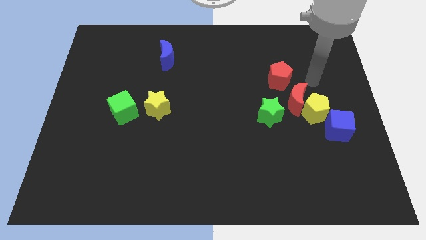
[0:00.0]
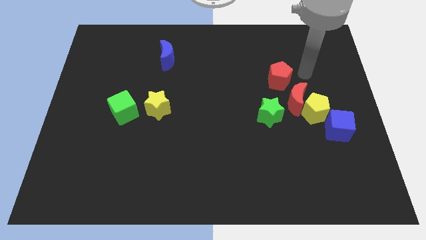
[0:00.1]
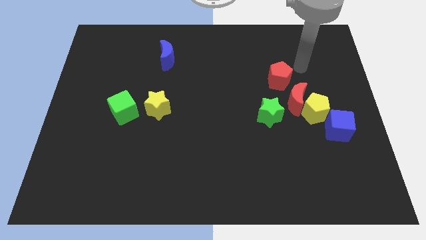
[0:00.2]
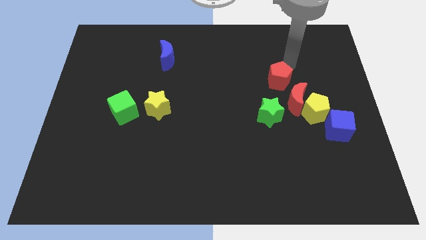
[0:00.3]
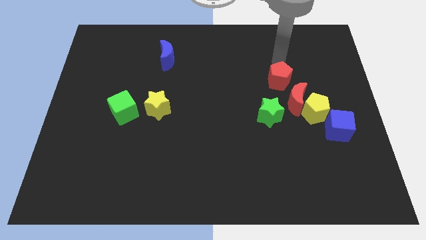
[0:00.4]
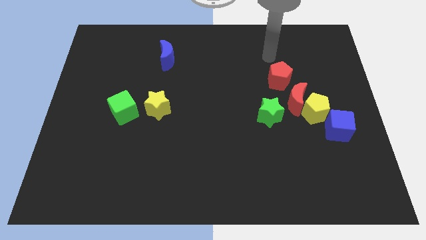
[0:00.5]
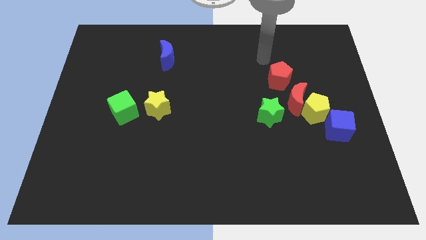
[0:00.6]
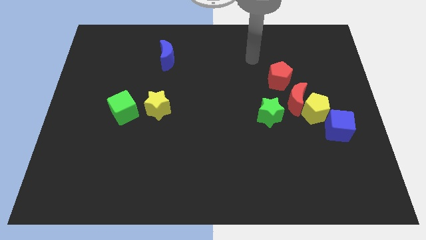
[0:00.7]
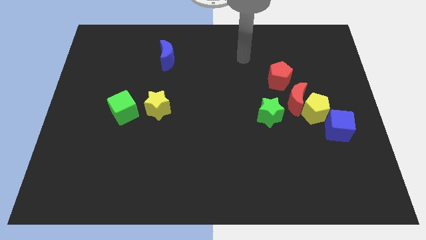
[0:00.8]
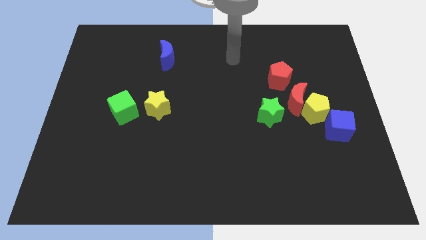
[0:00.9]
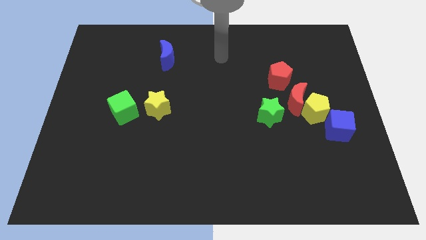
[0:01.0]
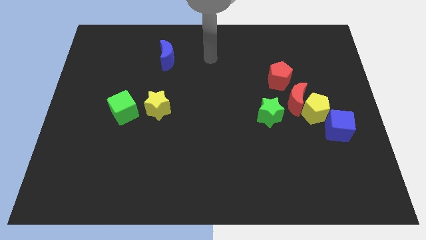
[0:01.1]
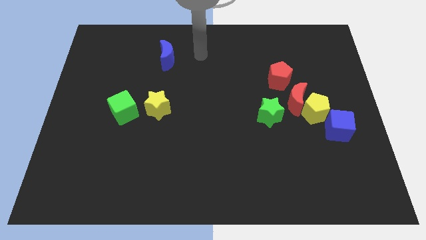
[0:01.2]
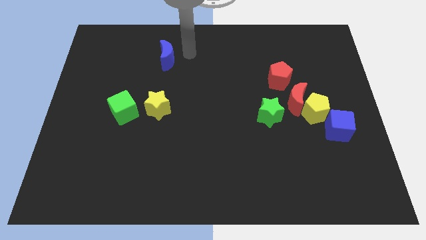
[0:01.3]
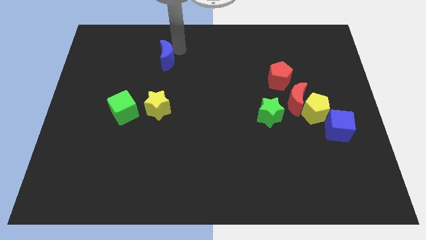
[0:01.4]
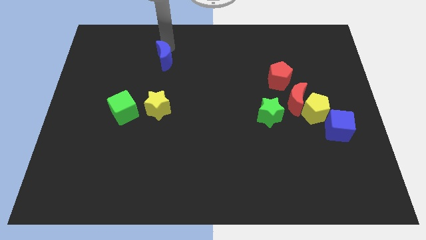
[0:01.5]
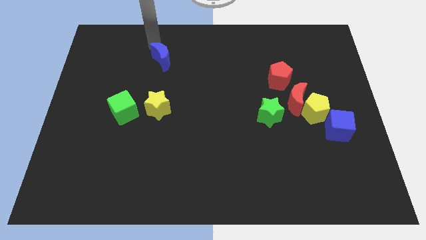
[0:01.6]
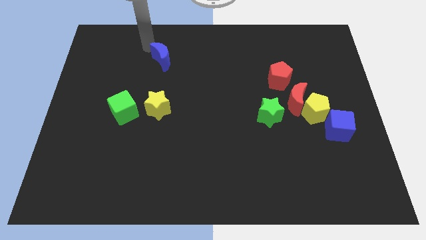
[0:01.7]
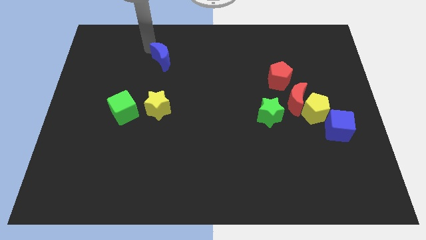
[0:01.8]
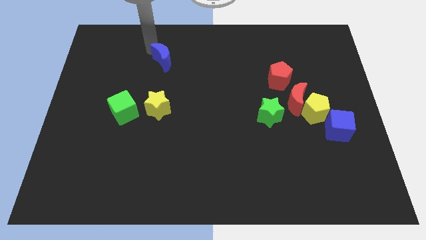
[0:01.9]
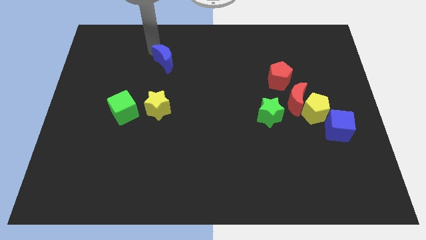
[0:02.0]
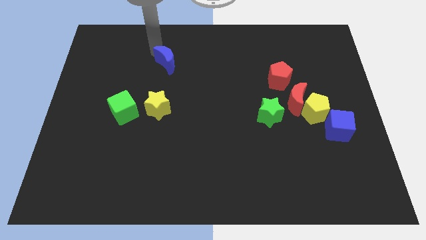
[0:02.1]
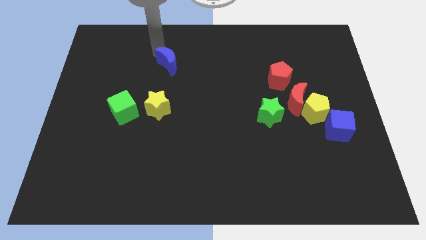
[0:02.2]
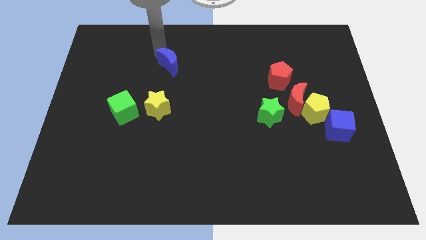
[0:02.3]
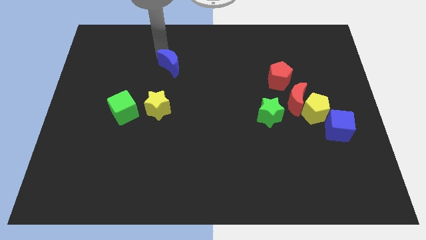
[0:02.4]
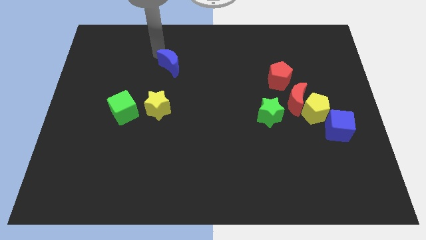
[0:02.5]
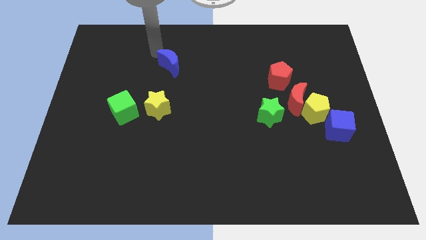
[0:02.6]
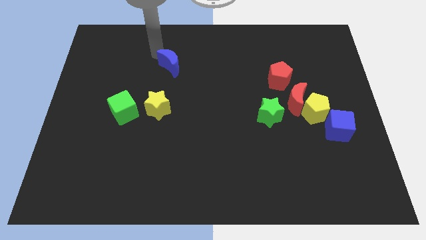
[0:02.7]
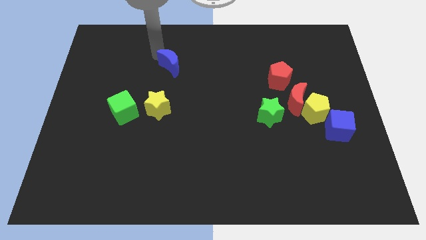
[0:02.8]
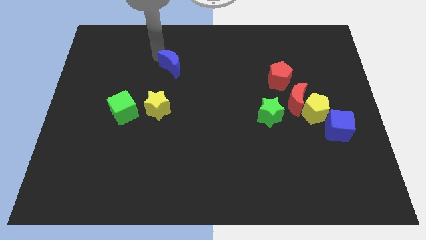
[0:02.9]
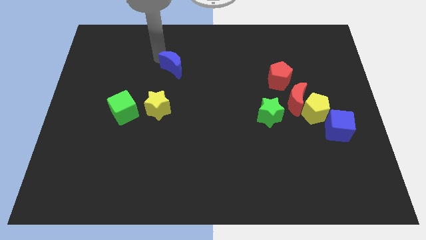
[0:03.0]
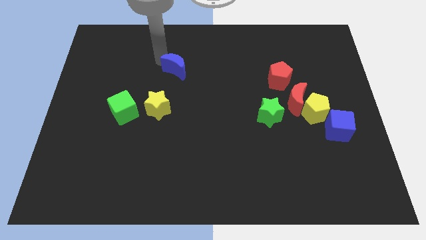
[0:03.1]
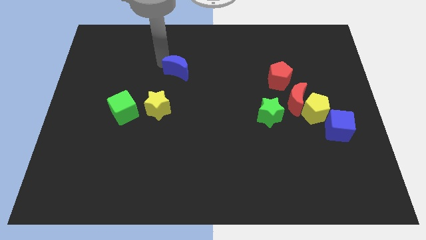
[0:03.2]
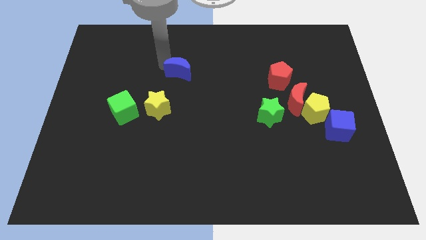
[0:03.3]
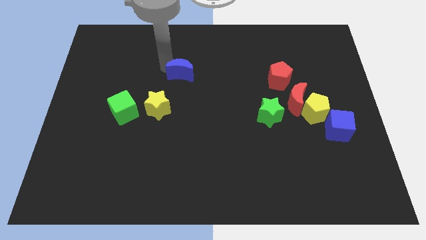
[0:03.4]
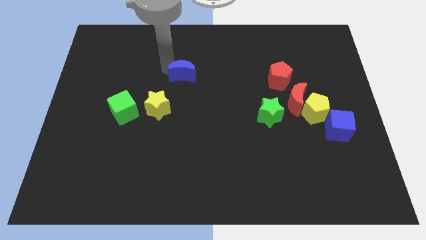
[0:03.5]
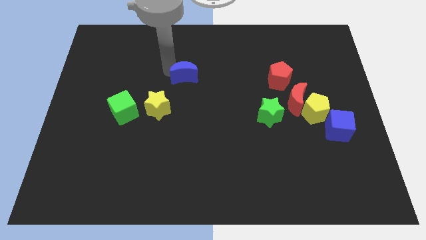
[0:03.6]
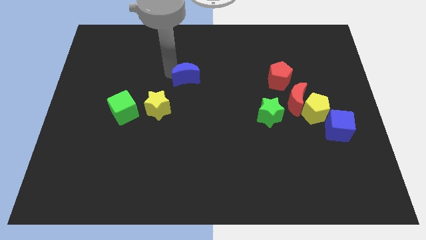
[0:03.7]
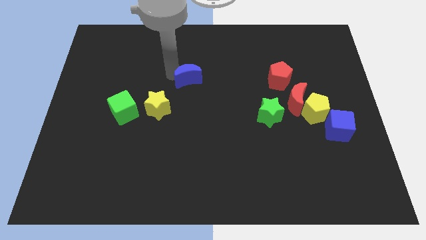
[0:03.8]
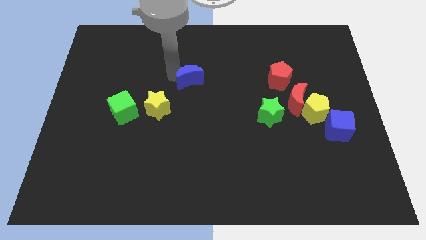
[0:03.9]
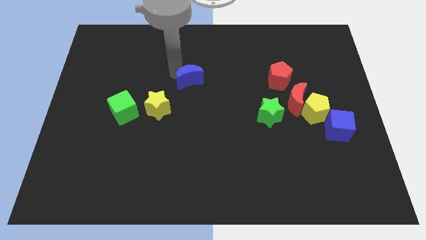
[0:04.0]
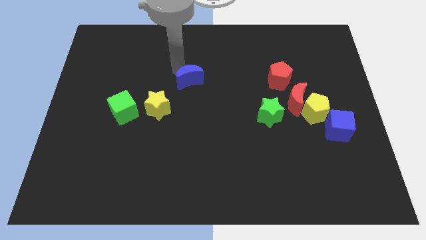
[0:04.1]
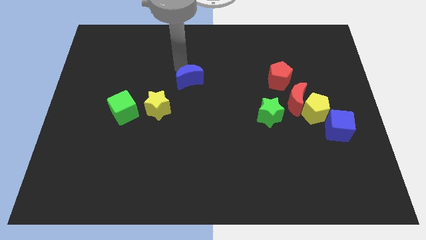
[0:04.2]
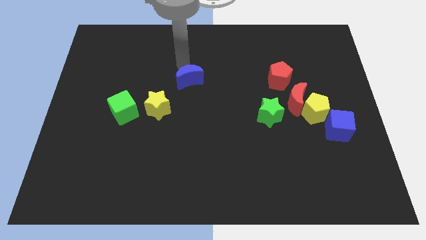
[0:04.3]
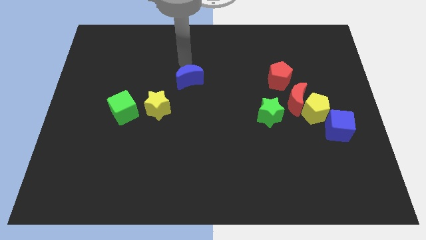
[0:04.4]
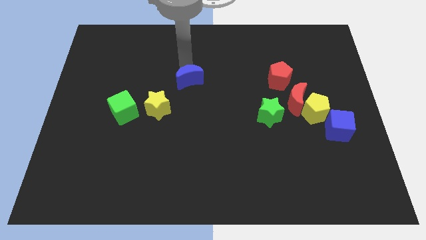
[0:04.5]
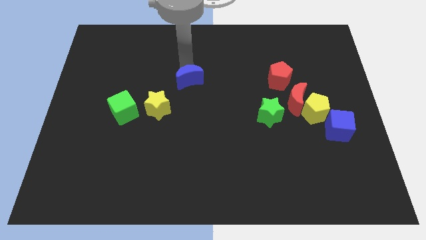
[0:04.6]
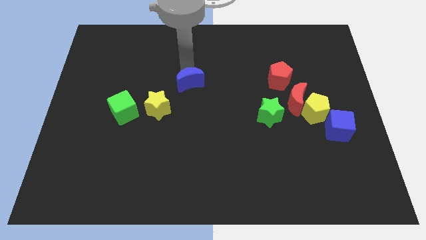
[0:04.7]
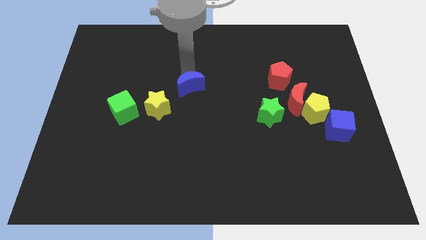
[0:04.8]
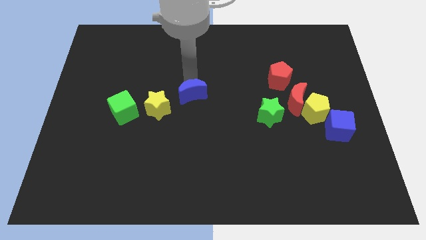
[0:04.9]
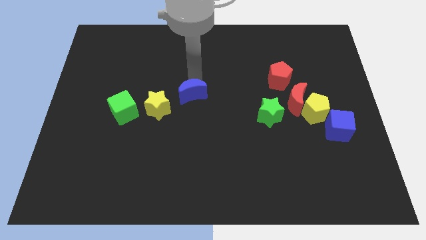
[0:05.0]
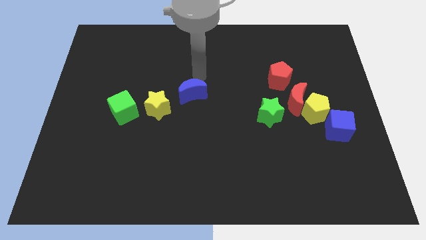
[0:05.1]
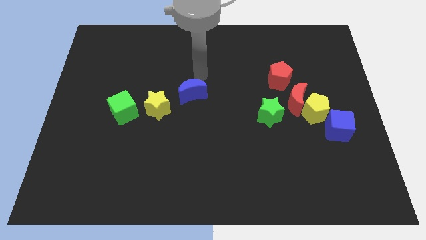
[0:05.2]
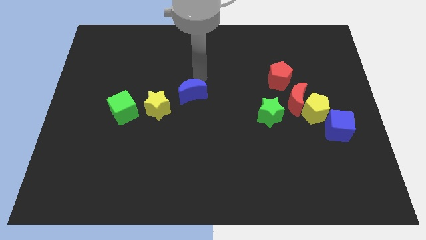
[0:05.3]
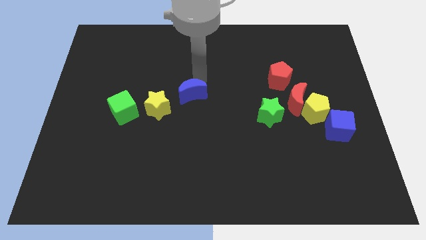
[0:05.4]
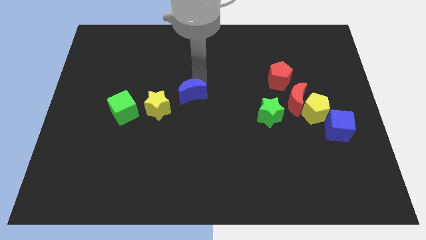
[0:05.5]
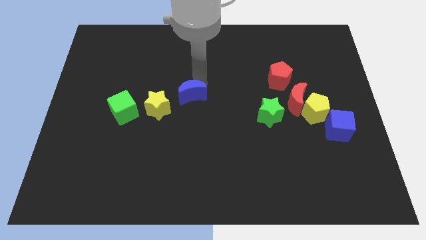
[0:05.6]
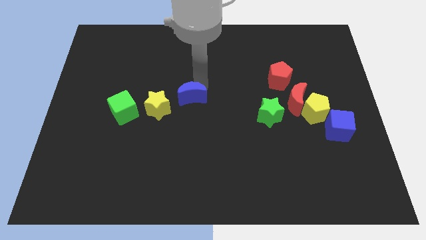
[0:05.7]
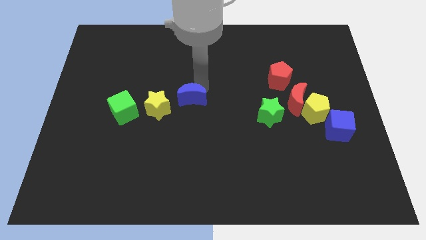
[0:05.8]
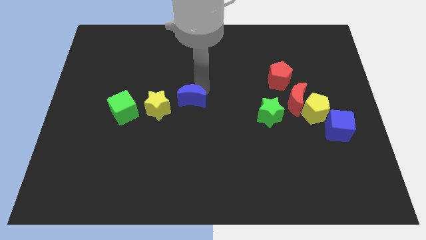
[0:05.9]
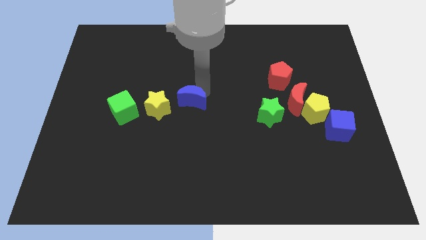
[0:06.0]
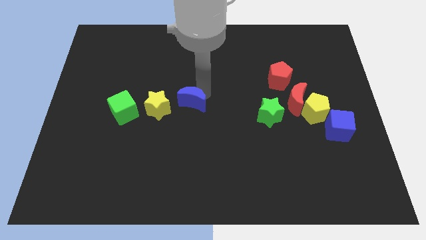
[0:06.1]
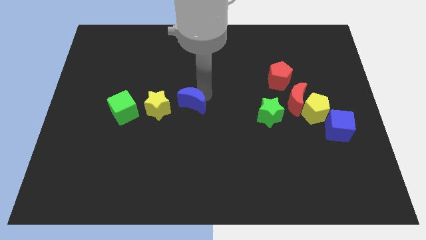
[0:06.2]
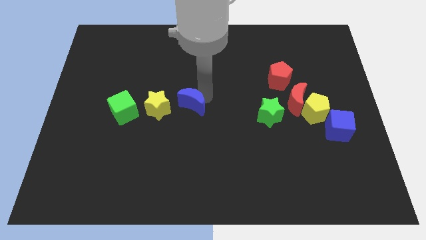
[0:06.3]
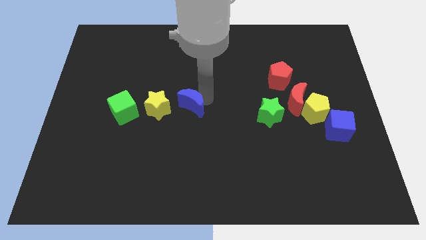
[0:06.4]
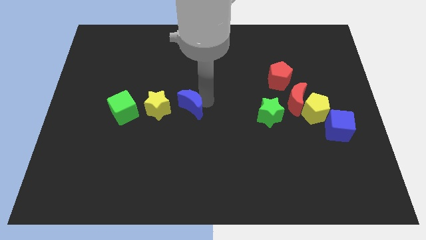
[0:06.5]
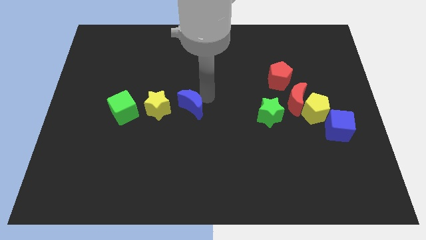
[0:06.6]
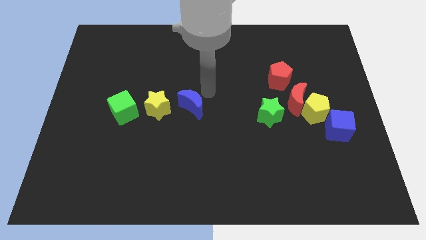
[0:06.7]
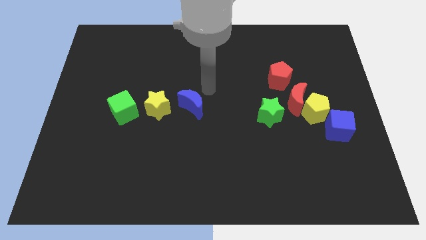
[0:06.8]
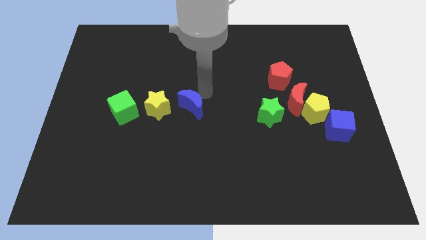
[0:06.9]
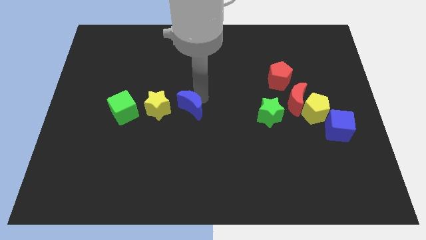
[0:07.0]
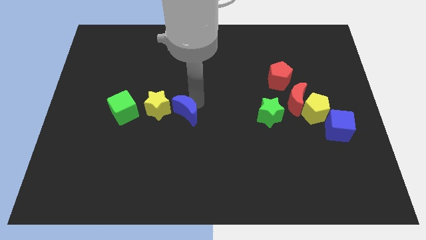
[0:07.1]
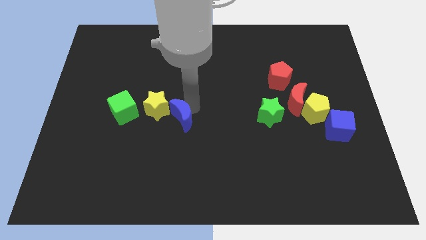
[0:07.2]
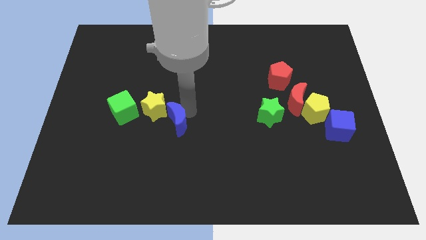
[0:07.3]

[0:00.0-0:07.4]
move the blue moon down

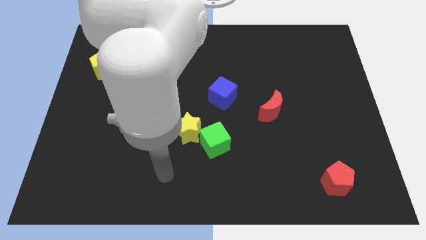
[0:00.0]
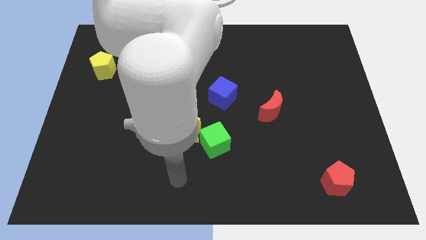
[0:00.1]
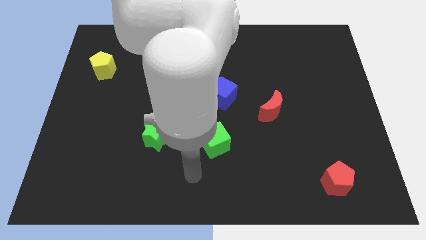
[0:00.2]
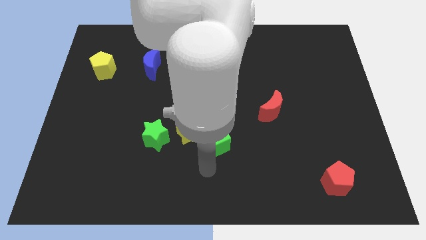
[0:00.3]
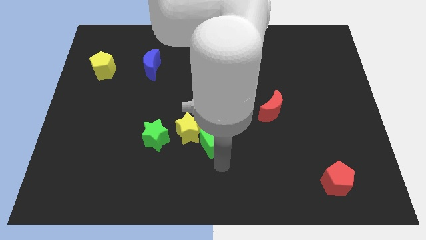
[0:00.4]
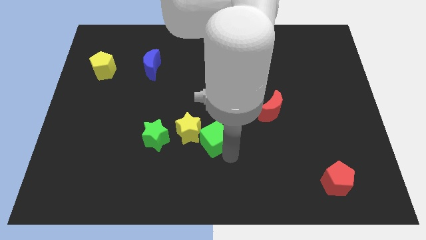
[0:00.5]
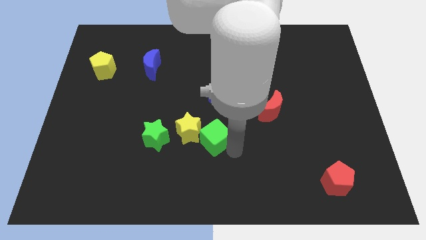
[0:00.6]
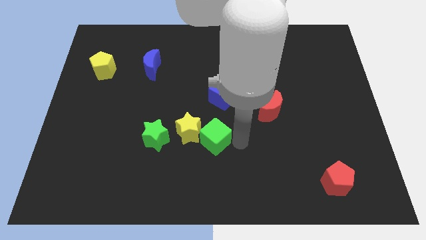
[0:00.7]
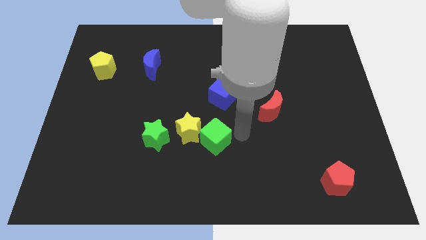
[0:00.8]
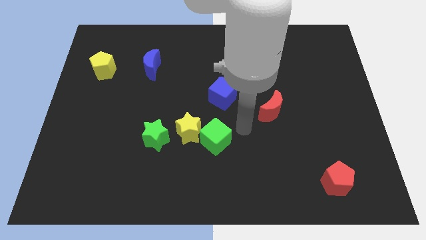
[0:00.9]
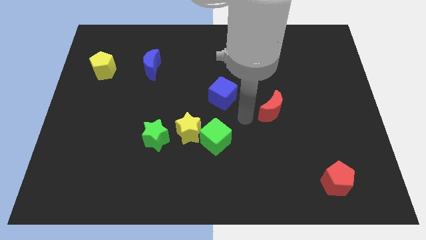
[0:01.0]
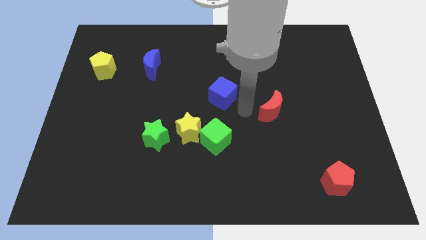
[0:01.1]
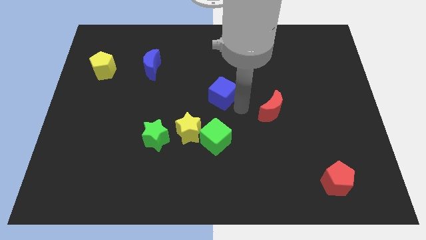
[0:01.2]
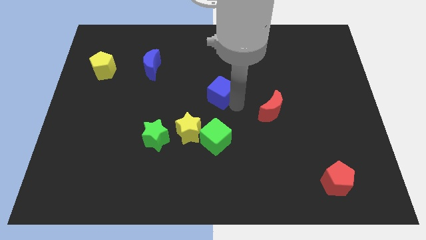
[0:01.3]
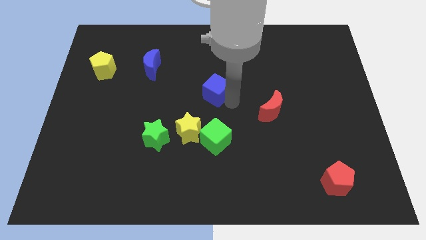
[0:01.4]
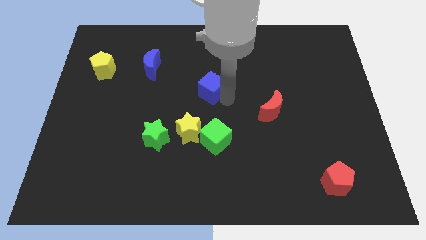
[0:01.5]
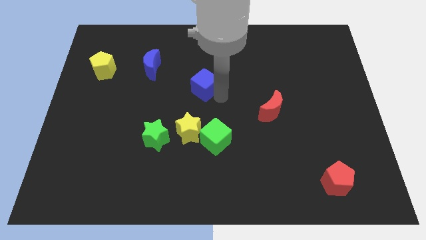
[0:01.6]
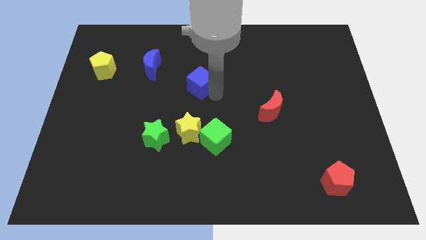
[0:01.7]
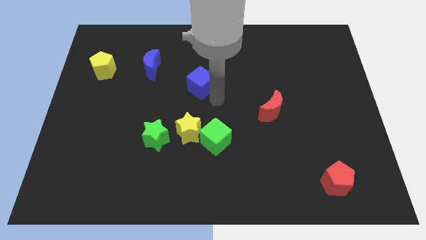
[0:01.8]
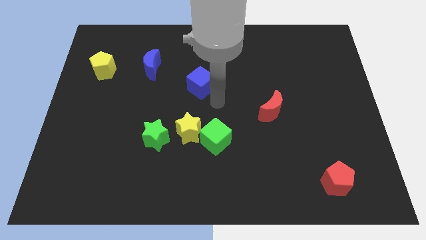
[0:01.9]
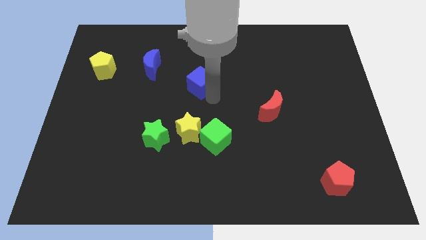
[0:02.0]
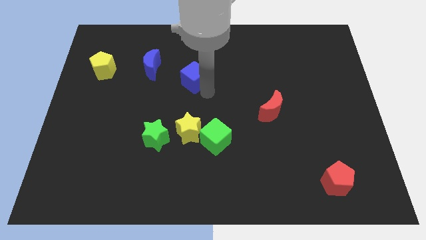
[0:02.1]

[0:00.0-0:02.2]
push the blue cube up and left a little
